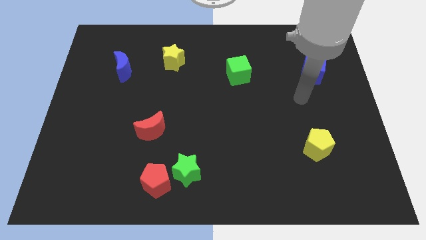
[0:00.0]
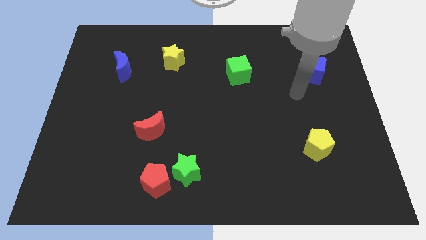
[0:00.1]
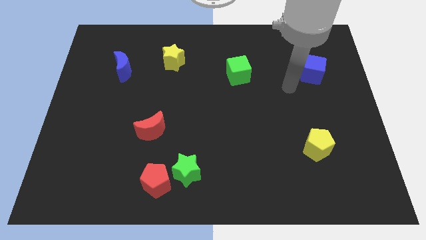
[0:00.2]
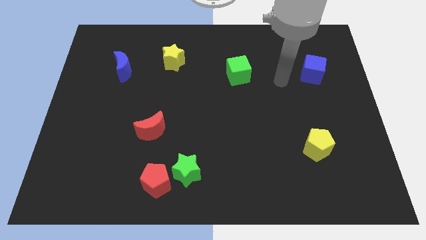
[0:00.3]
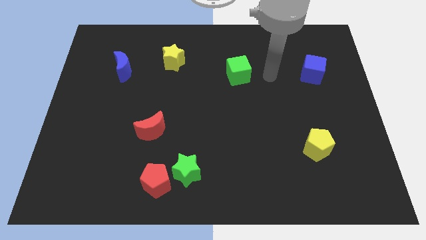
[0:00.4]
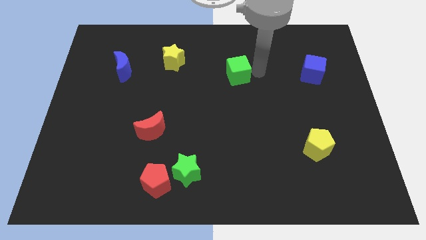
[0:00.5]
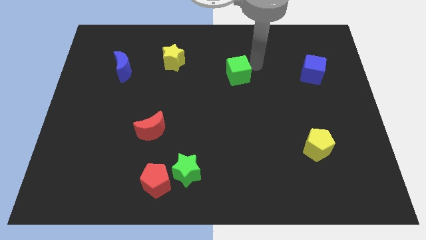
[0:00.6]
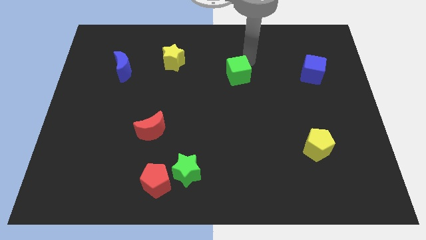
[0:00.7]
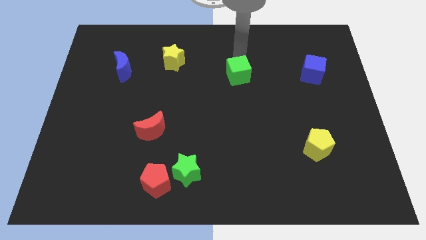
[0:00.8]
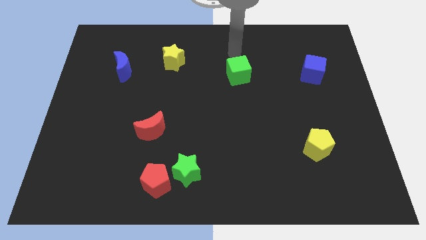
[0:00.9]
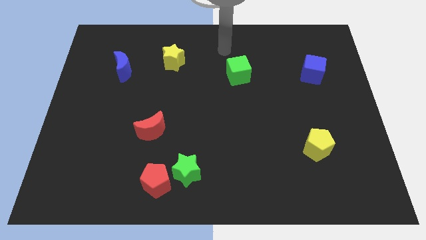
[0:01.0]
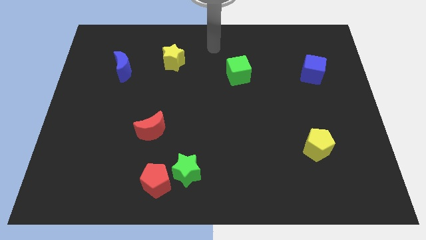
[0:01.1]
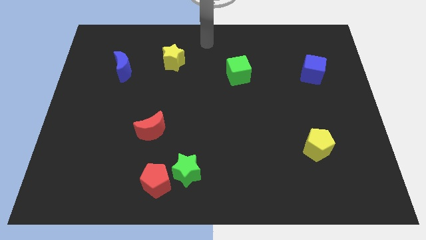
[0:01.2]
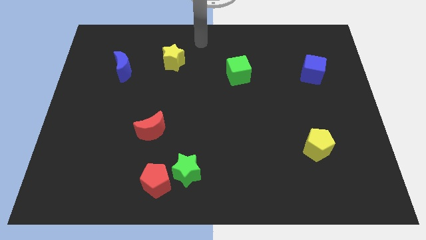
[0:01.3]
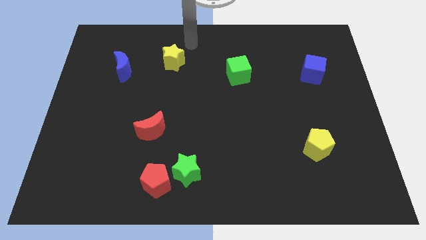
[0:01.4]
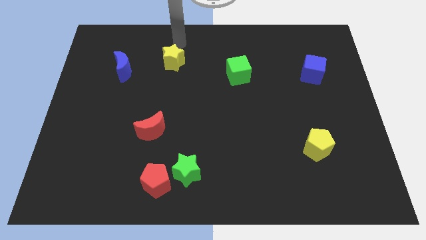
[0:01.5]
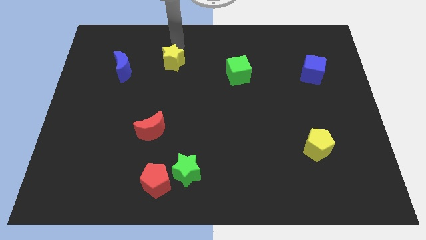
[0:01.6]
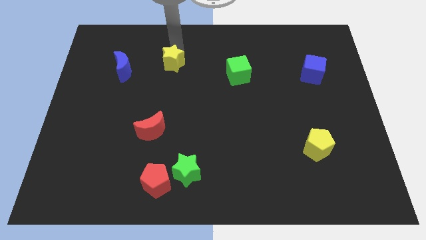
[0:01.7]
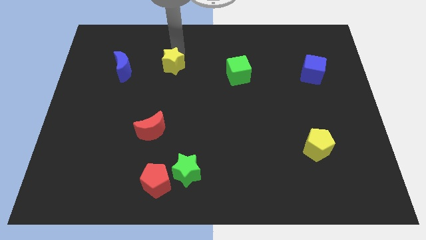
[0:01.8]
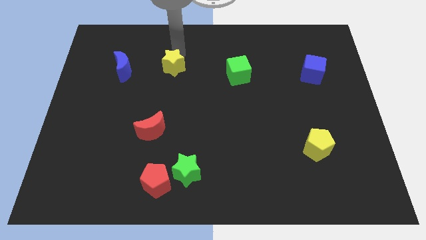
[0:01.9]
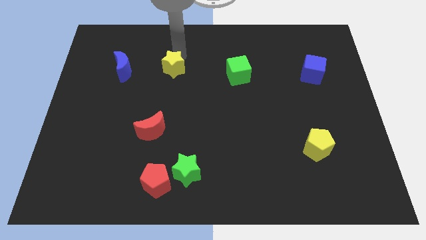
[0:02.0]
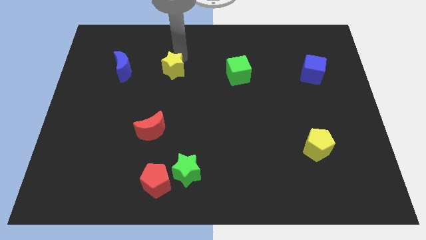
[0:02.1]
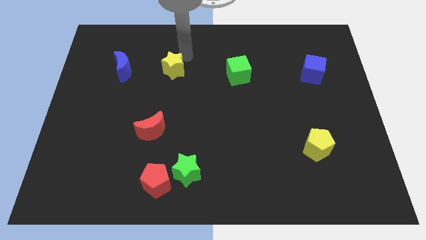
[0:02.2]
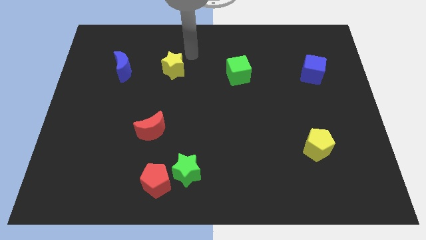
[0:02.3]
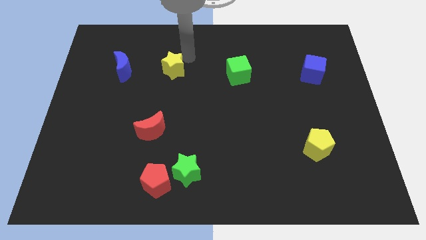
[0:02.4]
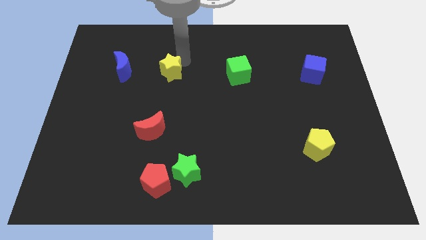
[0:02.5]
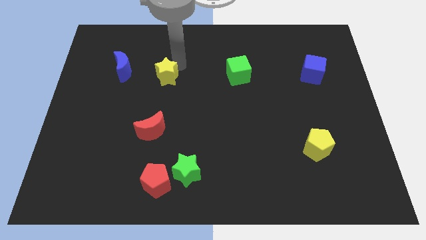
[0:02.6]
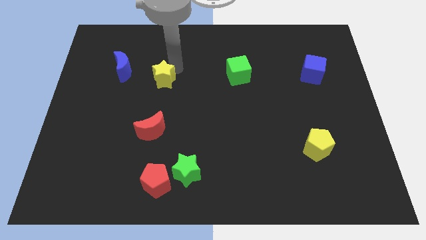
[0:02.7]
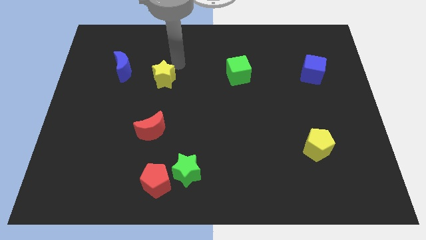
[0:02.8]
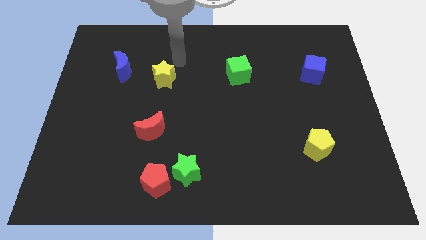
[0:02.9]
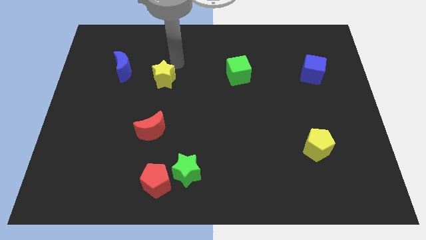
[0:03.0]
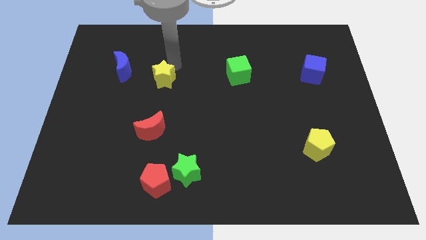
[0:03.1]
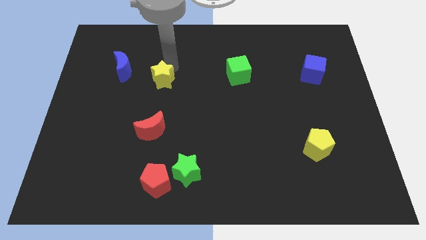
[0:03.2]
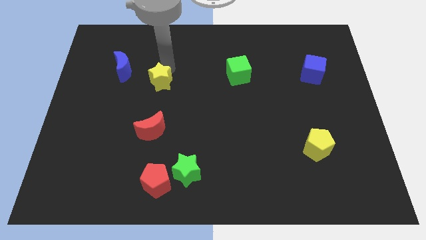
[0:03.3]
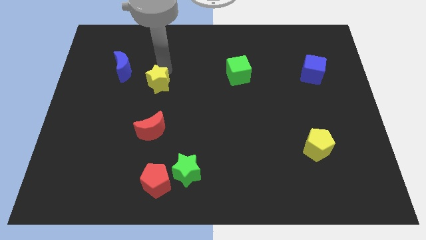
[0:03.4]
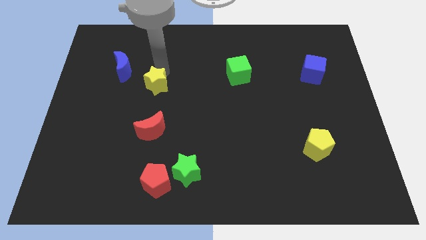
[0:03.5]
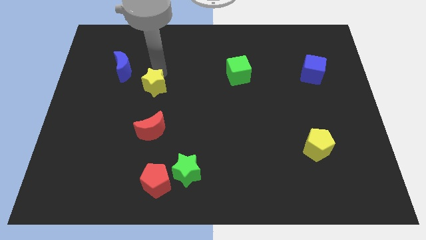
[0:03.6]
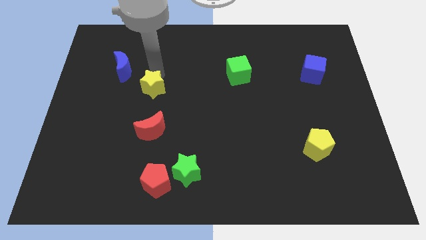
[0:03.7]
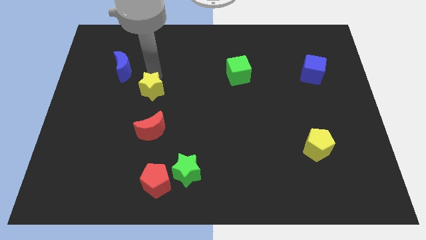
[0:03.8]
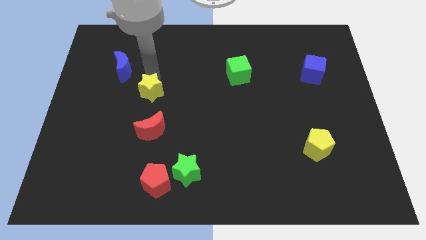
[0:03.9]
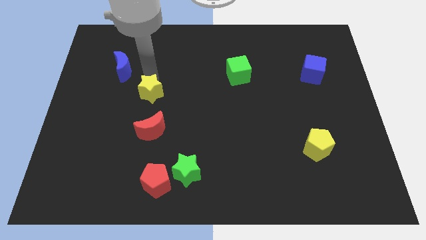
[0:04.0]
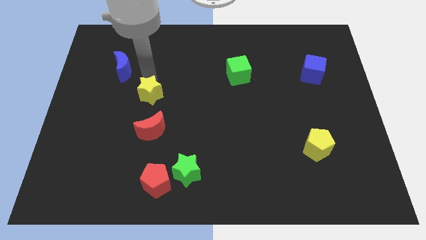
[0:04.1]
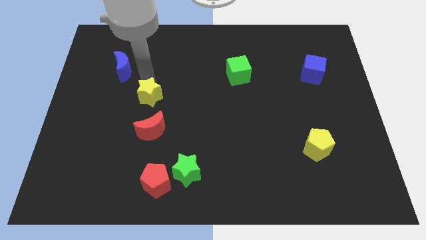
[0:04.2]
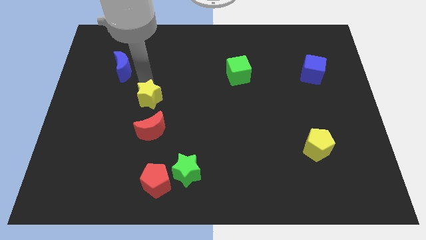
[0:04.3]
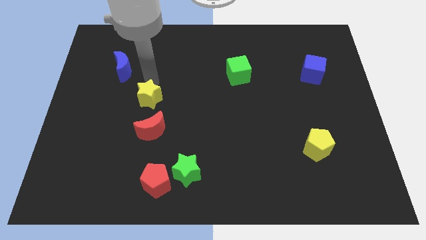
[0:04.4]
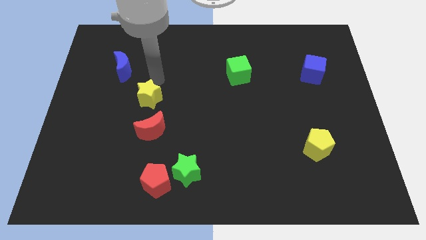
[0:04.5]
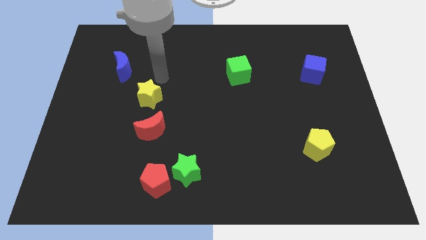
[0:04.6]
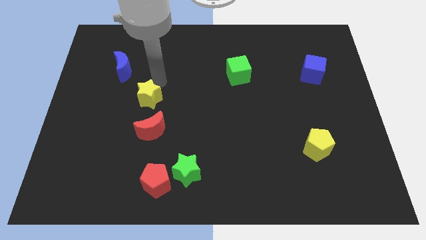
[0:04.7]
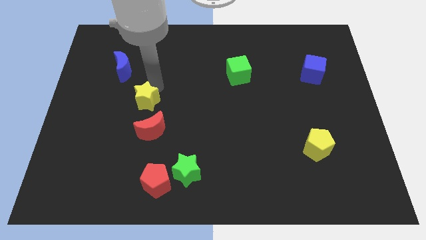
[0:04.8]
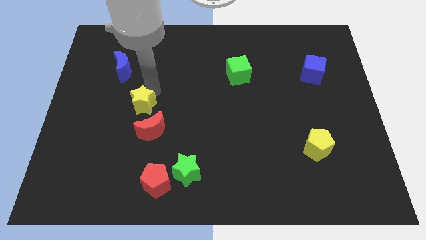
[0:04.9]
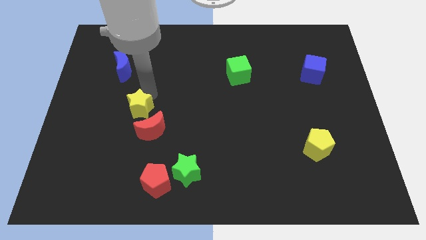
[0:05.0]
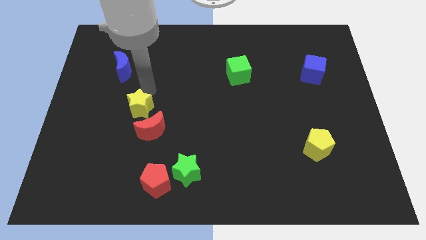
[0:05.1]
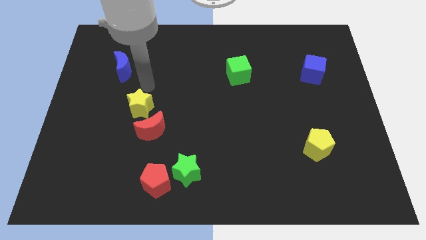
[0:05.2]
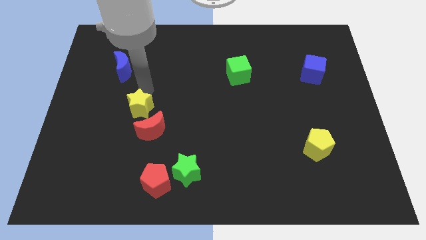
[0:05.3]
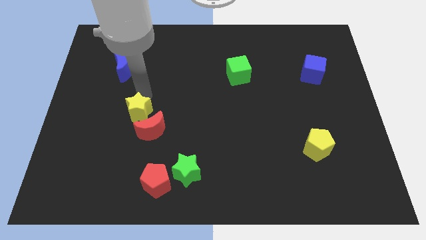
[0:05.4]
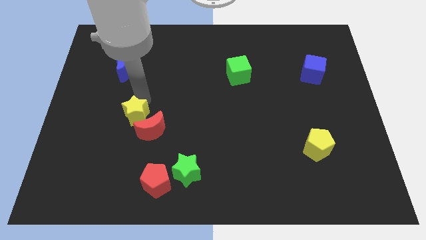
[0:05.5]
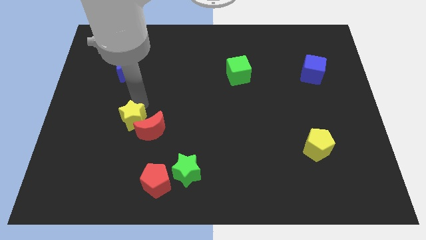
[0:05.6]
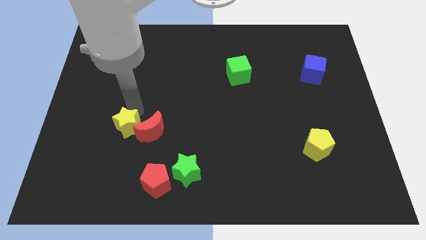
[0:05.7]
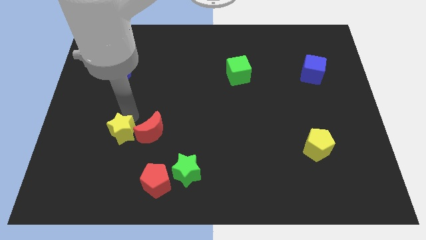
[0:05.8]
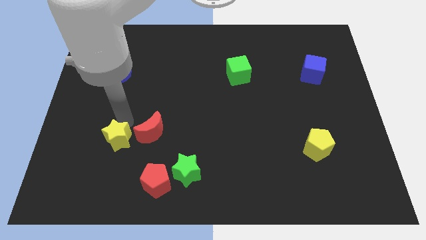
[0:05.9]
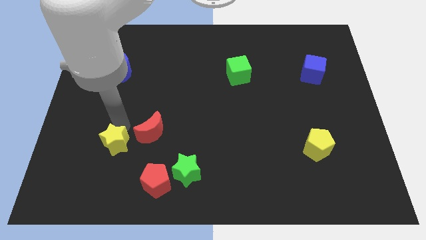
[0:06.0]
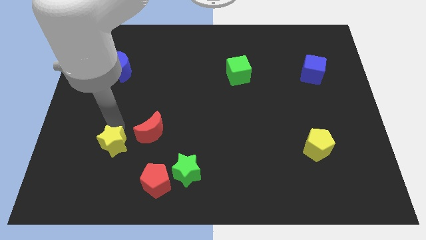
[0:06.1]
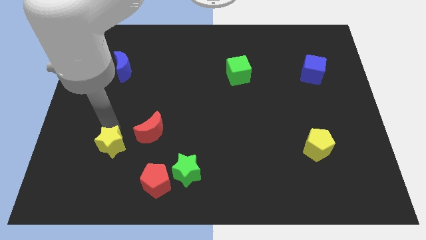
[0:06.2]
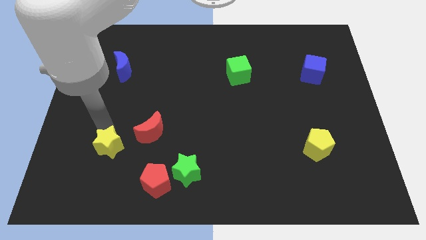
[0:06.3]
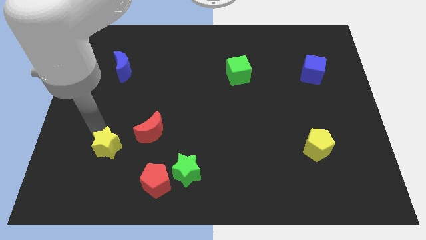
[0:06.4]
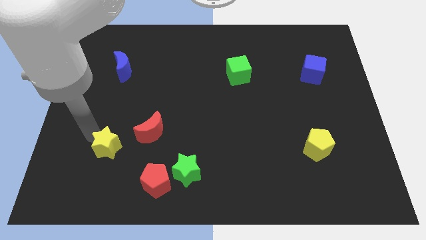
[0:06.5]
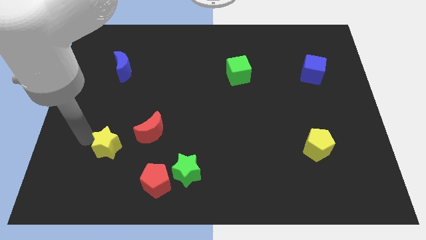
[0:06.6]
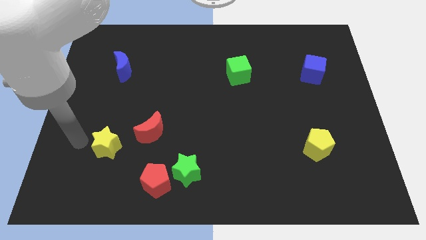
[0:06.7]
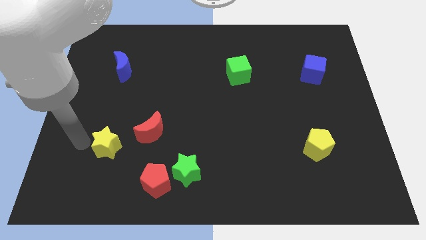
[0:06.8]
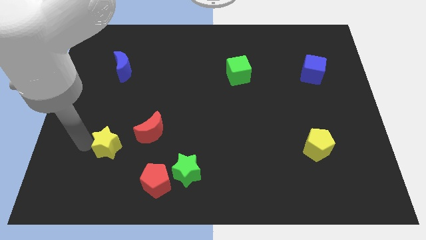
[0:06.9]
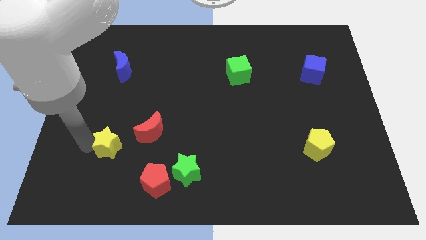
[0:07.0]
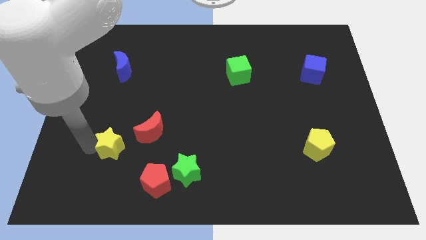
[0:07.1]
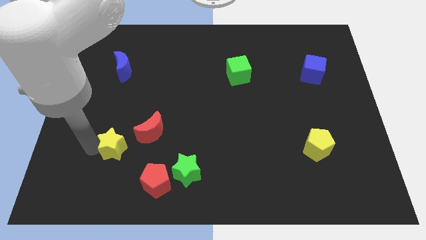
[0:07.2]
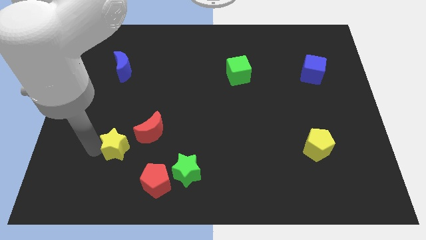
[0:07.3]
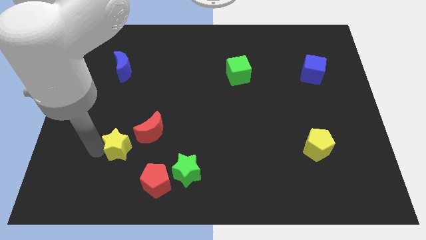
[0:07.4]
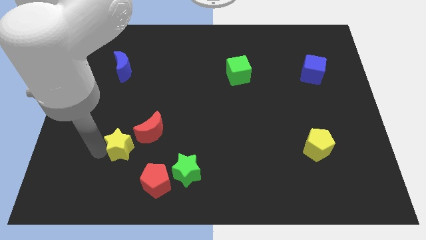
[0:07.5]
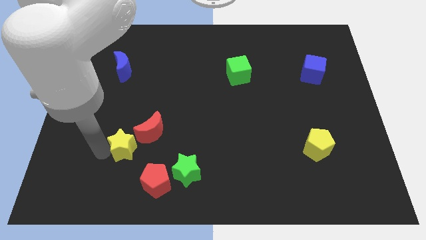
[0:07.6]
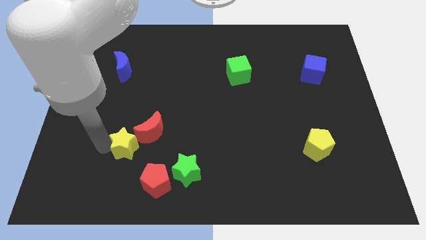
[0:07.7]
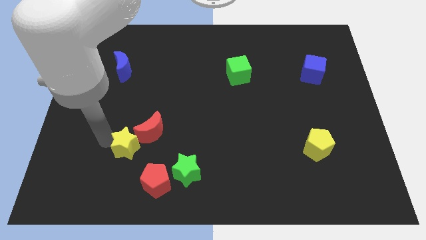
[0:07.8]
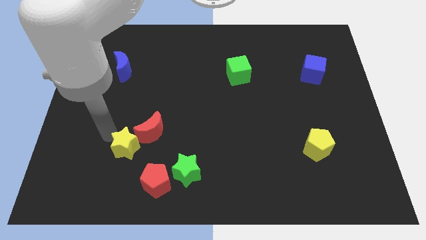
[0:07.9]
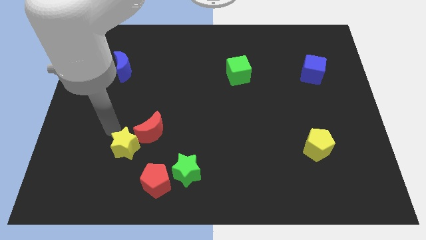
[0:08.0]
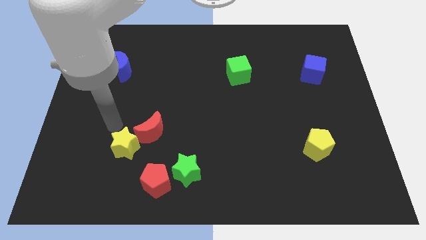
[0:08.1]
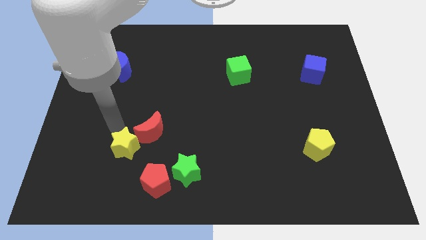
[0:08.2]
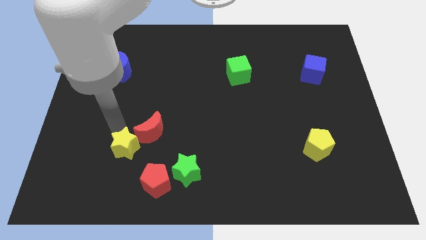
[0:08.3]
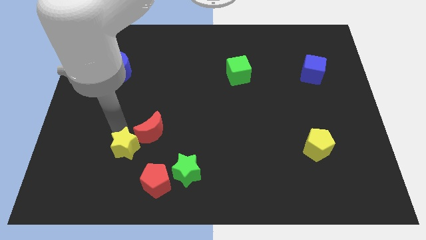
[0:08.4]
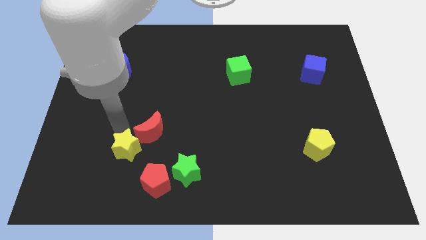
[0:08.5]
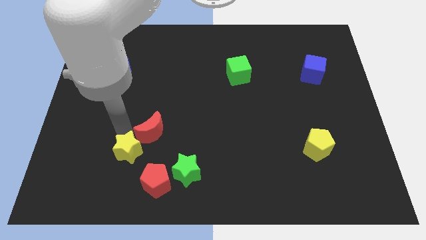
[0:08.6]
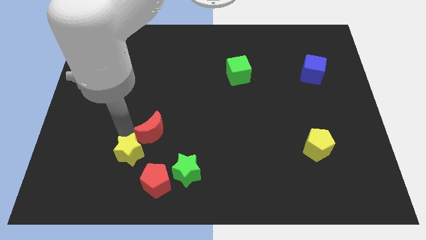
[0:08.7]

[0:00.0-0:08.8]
push the yellow star to the left side of the green star
